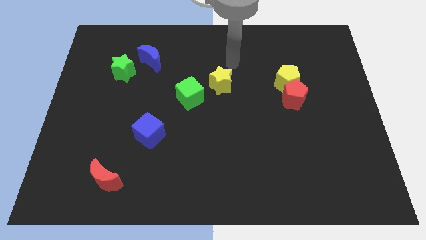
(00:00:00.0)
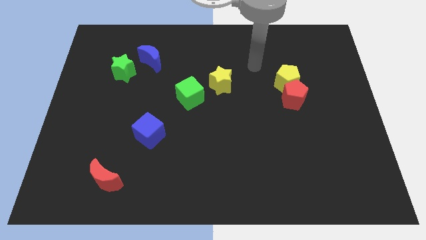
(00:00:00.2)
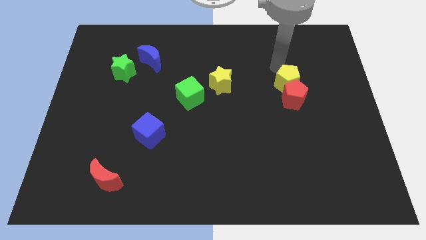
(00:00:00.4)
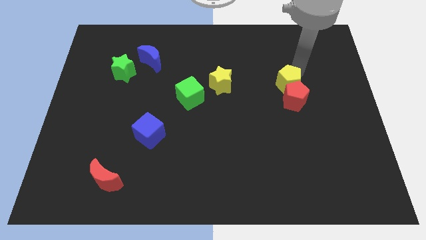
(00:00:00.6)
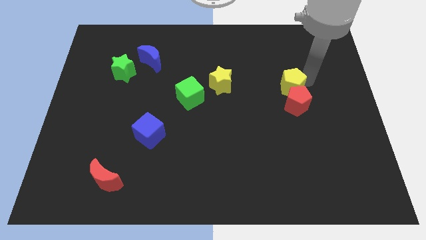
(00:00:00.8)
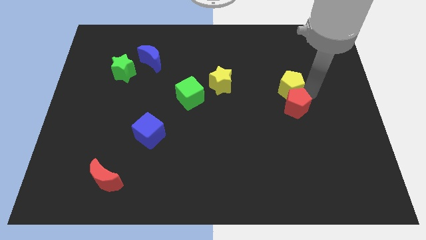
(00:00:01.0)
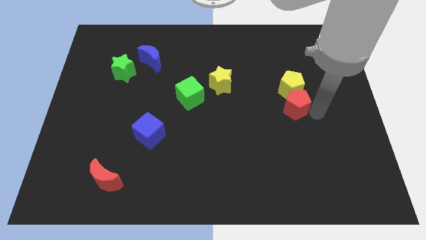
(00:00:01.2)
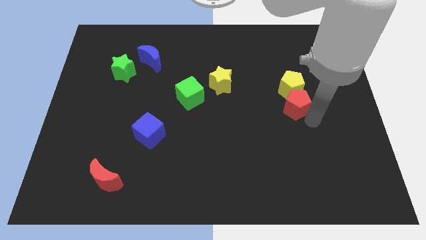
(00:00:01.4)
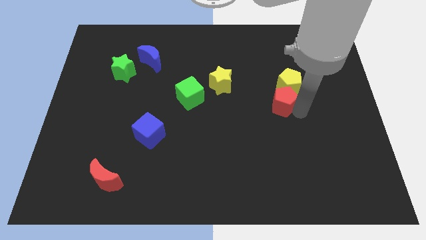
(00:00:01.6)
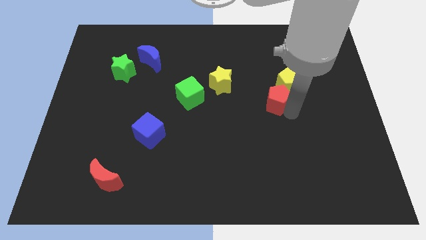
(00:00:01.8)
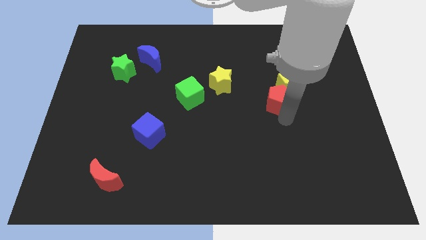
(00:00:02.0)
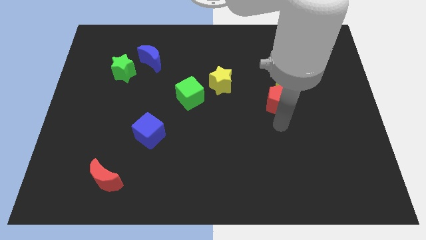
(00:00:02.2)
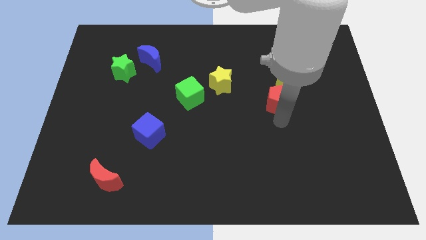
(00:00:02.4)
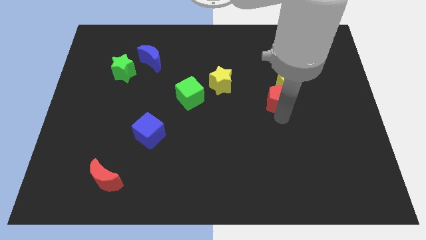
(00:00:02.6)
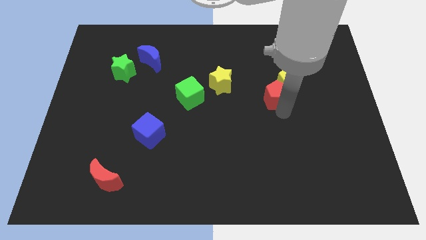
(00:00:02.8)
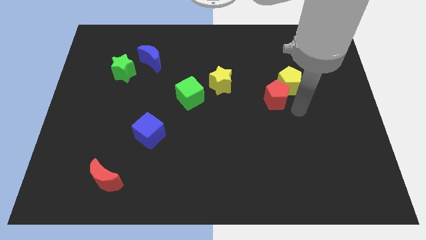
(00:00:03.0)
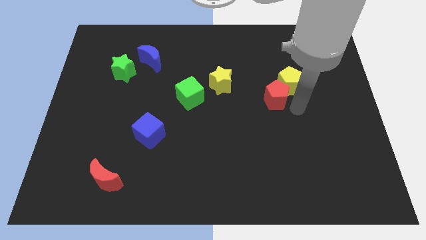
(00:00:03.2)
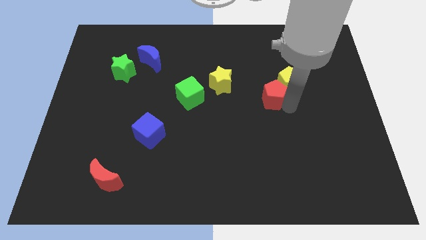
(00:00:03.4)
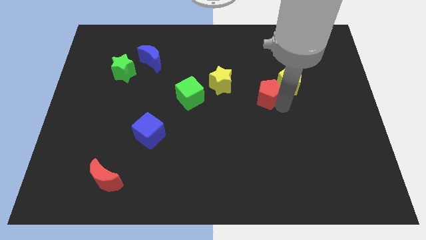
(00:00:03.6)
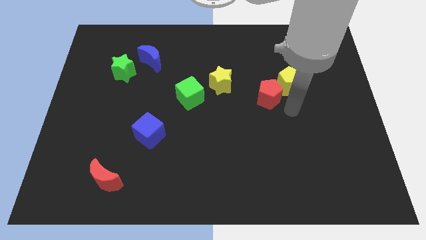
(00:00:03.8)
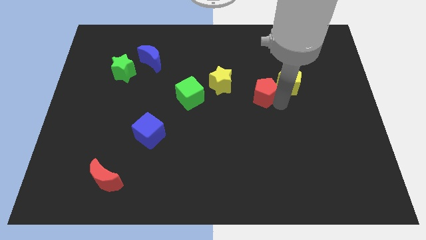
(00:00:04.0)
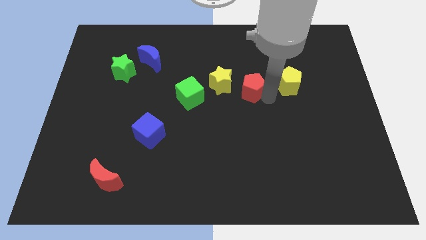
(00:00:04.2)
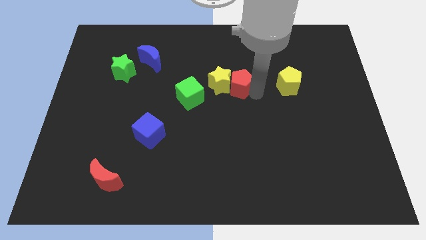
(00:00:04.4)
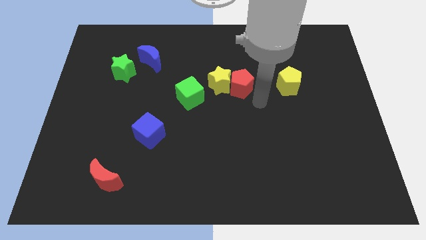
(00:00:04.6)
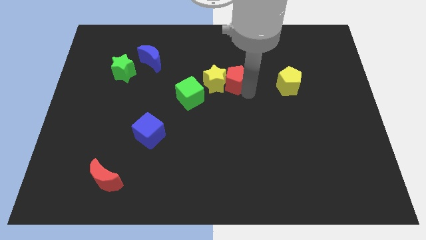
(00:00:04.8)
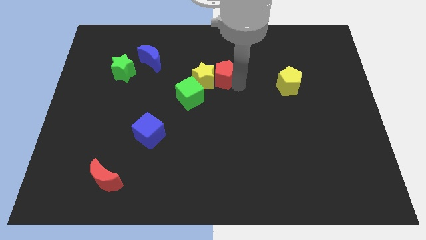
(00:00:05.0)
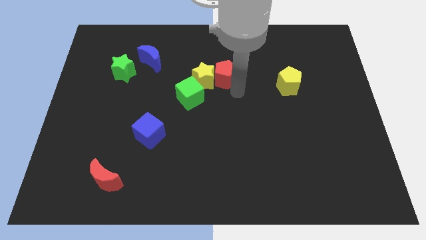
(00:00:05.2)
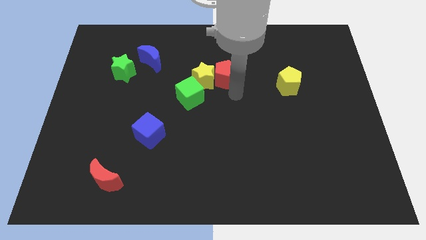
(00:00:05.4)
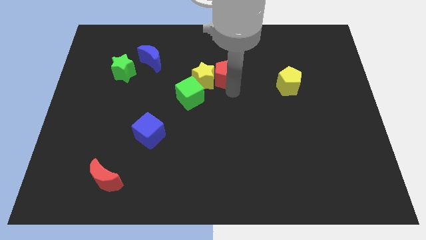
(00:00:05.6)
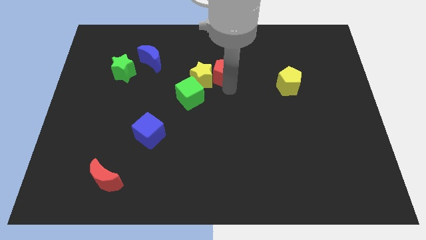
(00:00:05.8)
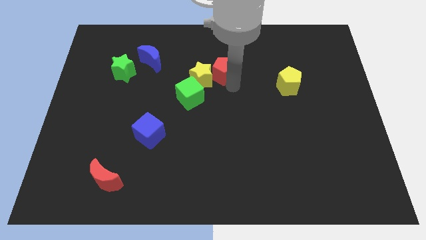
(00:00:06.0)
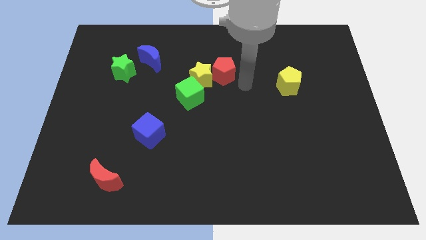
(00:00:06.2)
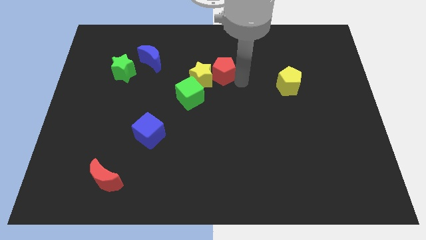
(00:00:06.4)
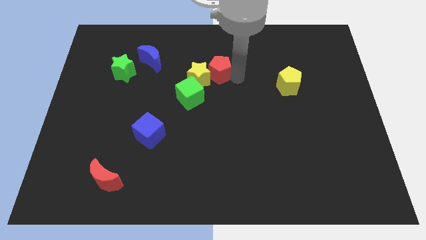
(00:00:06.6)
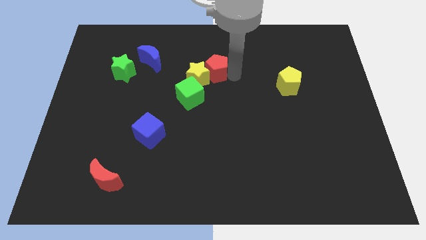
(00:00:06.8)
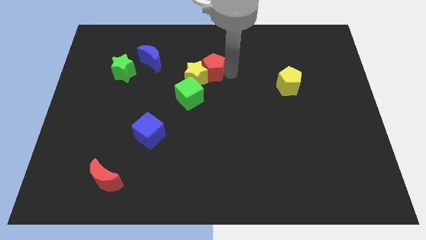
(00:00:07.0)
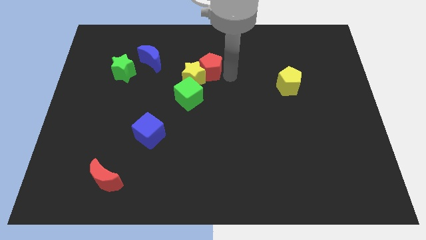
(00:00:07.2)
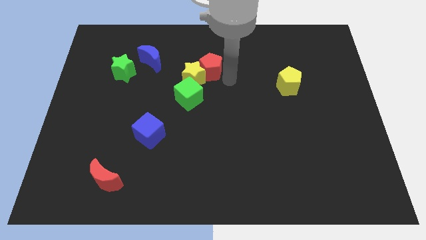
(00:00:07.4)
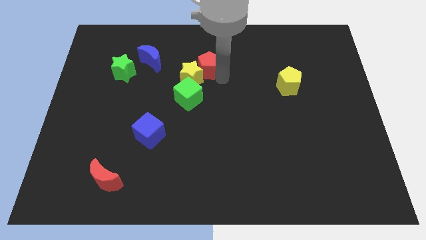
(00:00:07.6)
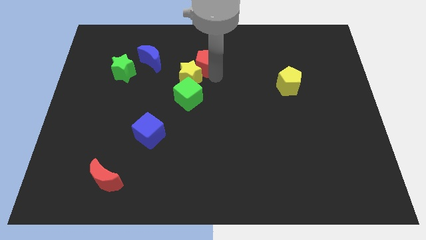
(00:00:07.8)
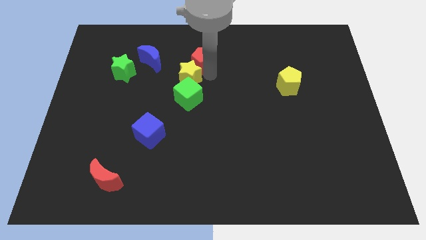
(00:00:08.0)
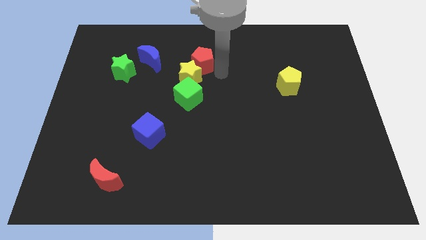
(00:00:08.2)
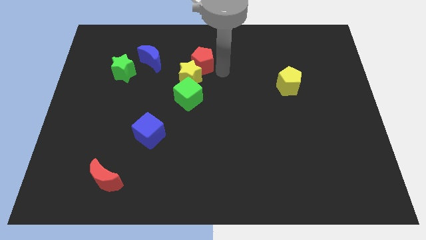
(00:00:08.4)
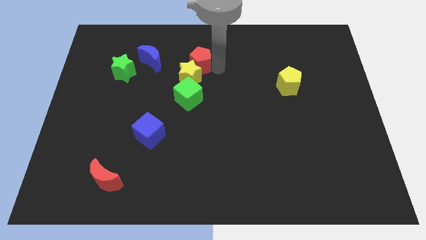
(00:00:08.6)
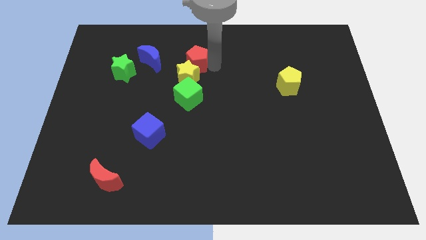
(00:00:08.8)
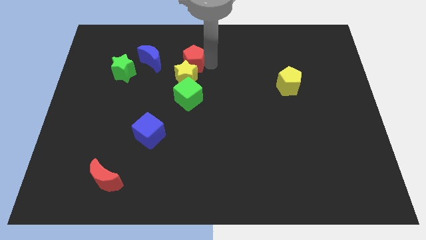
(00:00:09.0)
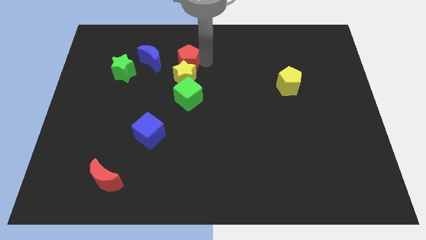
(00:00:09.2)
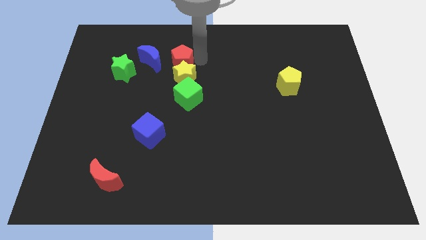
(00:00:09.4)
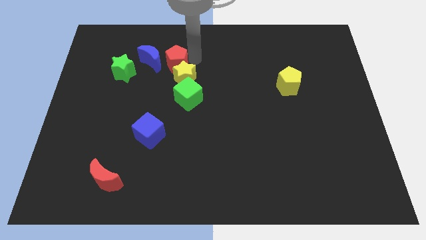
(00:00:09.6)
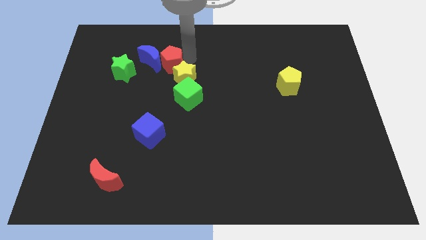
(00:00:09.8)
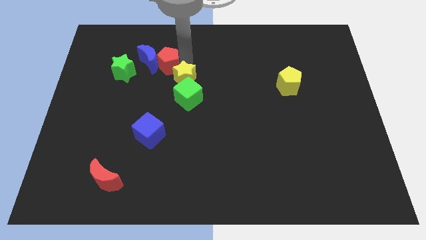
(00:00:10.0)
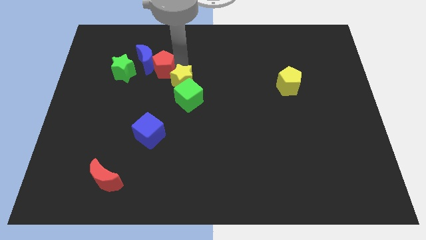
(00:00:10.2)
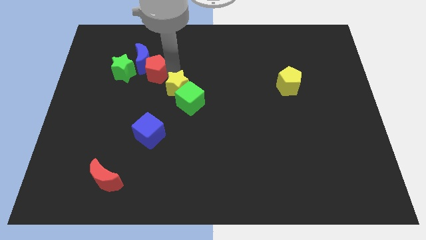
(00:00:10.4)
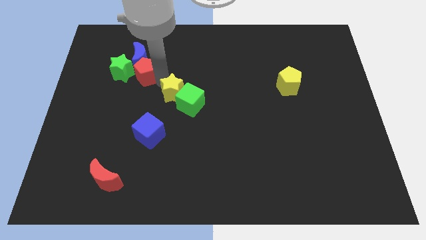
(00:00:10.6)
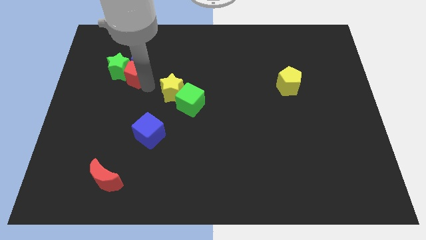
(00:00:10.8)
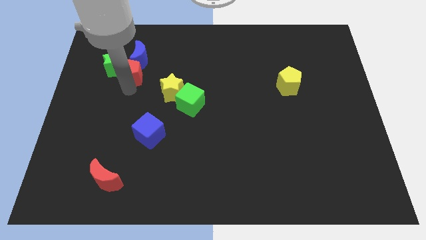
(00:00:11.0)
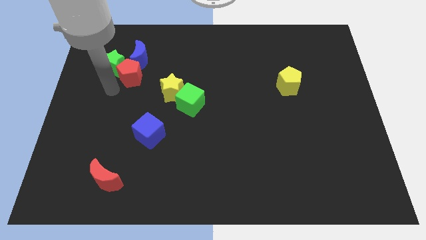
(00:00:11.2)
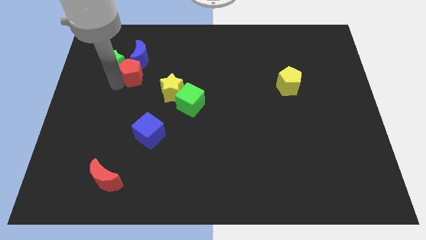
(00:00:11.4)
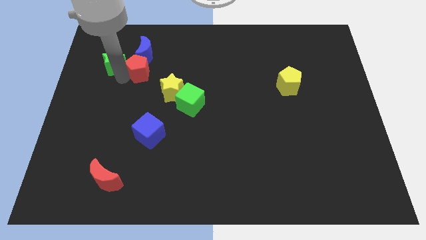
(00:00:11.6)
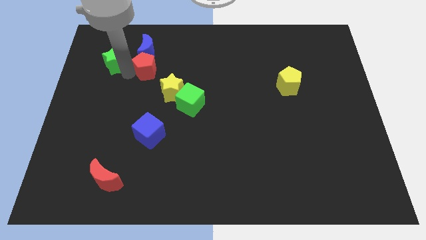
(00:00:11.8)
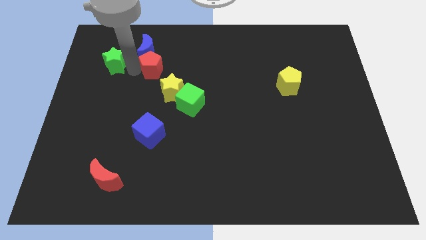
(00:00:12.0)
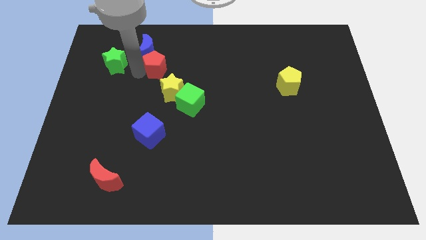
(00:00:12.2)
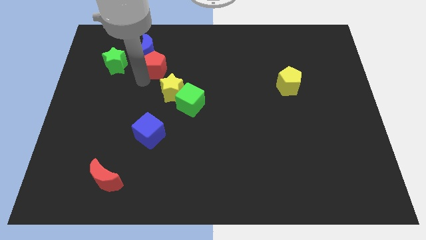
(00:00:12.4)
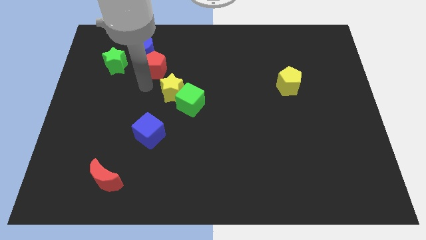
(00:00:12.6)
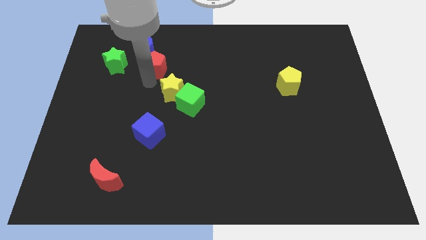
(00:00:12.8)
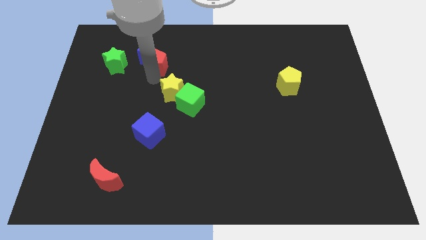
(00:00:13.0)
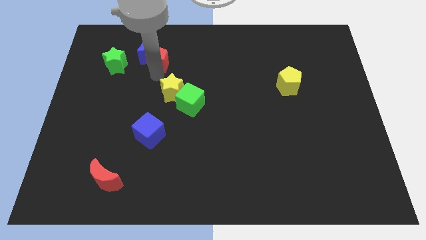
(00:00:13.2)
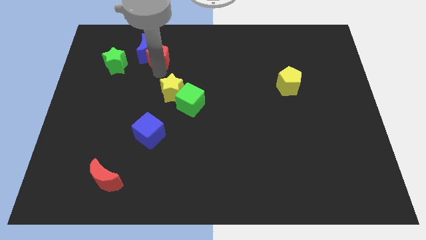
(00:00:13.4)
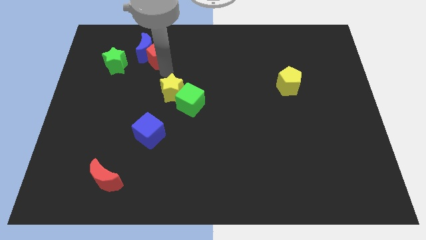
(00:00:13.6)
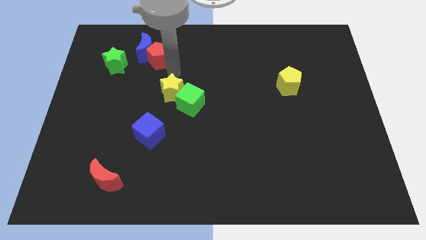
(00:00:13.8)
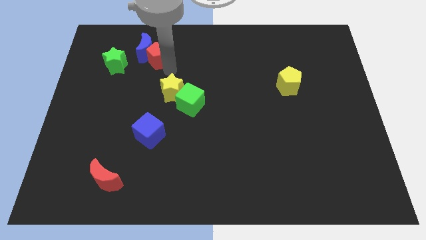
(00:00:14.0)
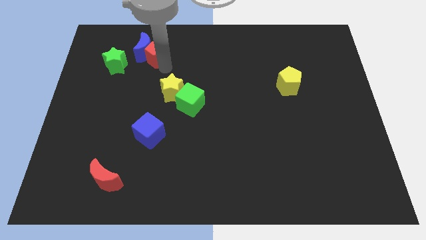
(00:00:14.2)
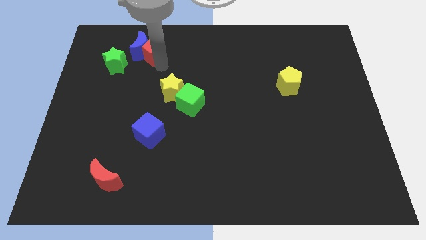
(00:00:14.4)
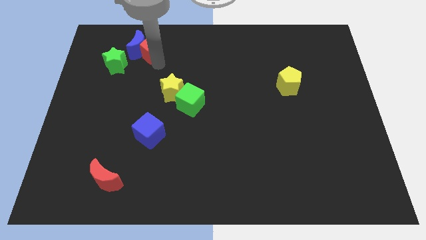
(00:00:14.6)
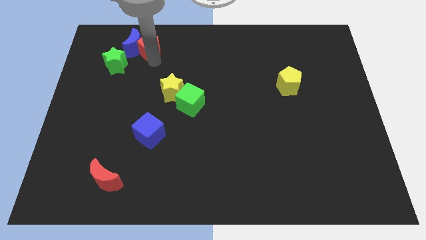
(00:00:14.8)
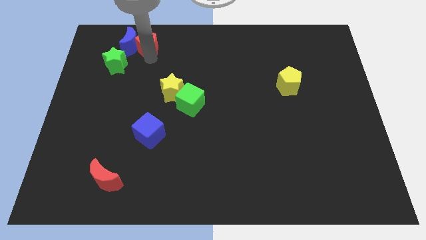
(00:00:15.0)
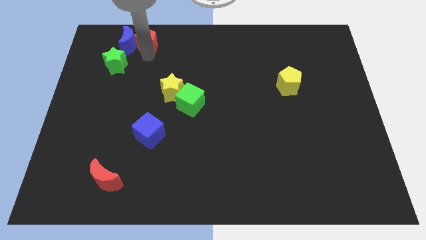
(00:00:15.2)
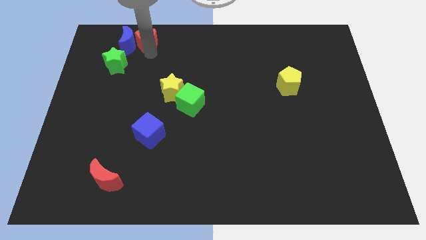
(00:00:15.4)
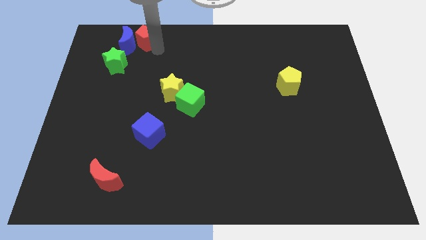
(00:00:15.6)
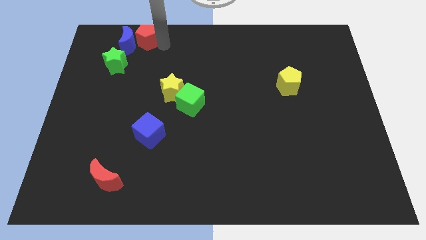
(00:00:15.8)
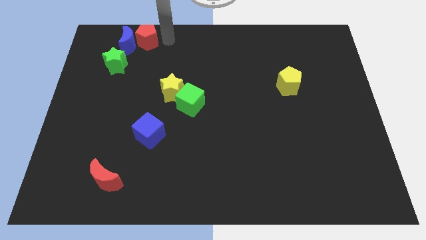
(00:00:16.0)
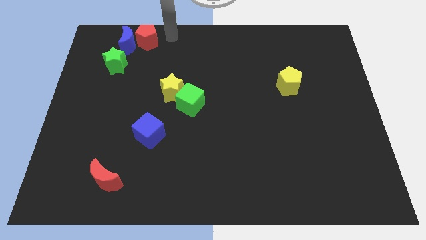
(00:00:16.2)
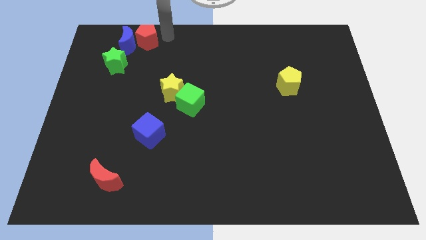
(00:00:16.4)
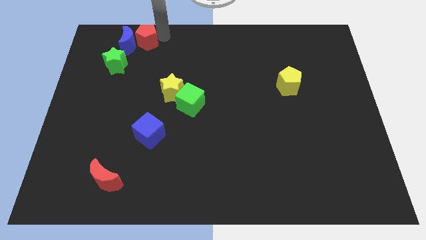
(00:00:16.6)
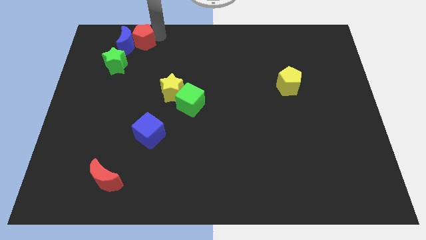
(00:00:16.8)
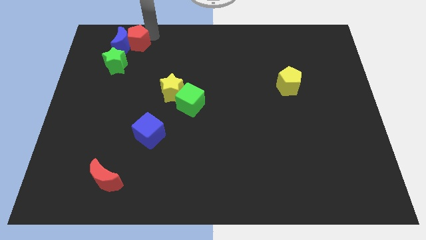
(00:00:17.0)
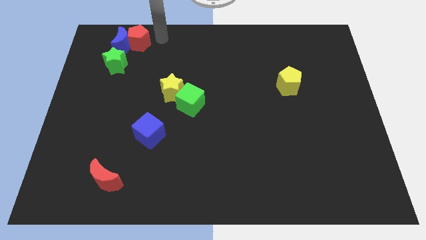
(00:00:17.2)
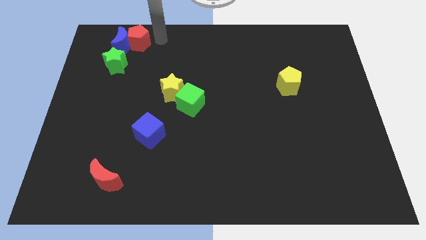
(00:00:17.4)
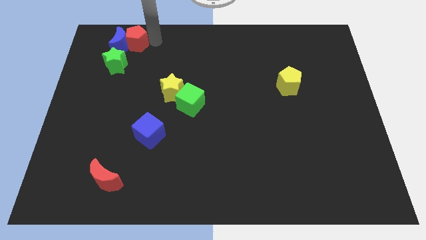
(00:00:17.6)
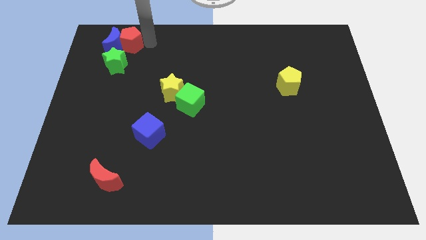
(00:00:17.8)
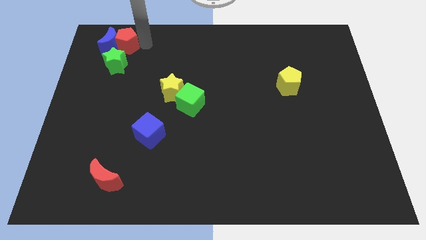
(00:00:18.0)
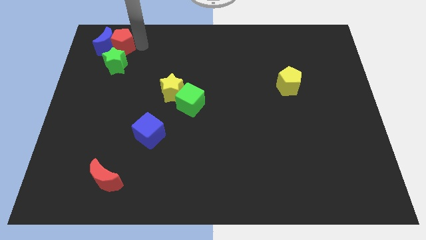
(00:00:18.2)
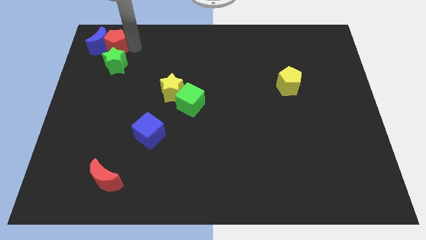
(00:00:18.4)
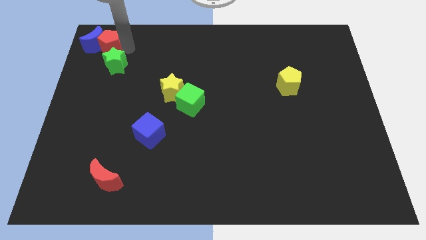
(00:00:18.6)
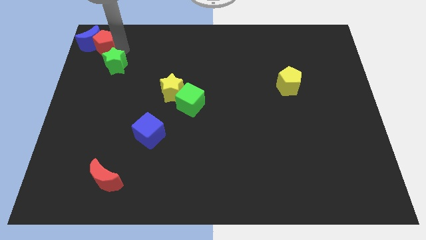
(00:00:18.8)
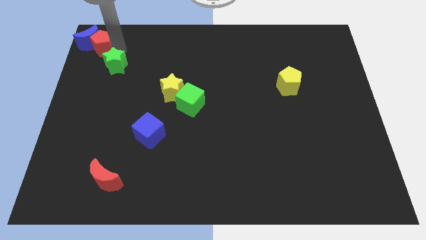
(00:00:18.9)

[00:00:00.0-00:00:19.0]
move the red pentagon to the top left corner
